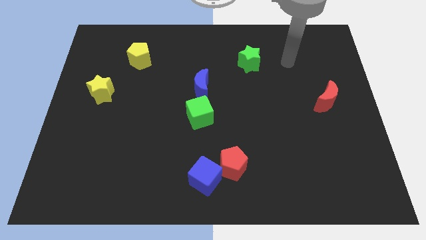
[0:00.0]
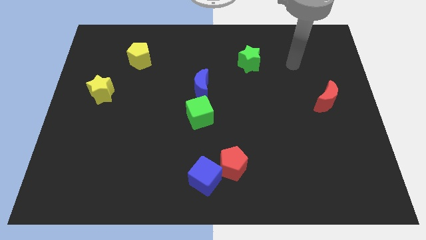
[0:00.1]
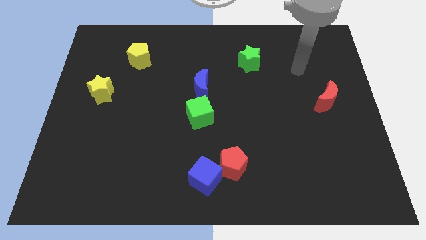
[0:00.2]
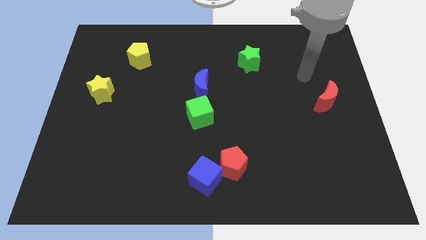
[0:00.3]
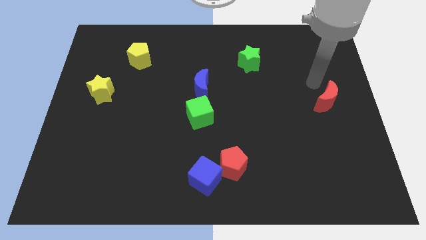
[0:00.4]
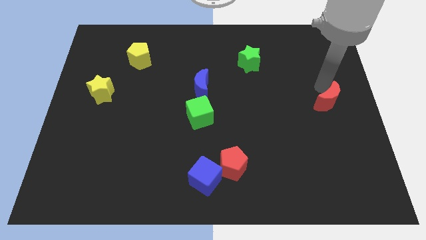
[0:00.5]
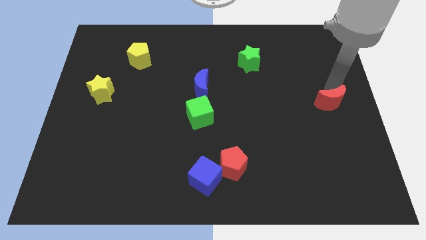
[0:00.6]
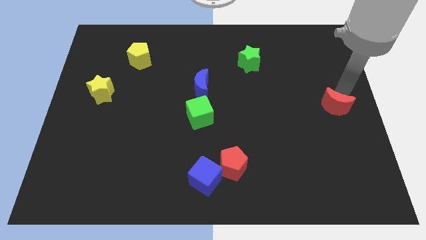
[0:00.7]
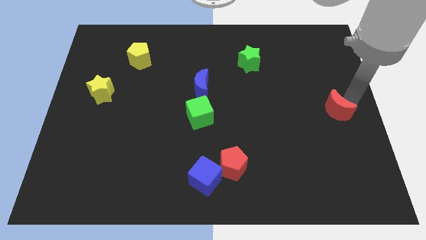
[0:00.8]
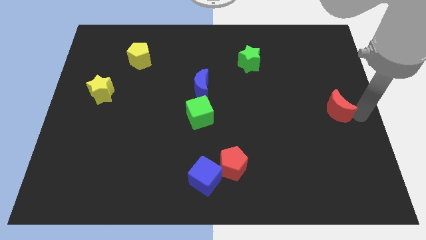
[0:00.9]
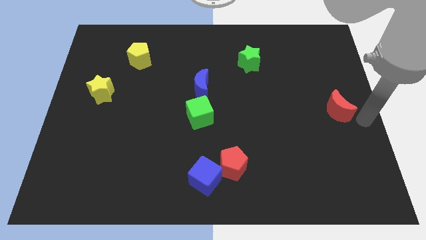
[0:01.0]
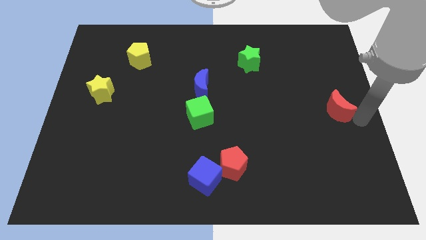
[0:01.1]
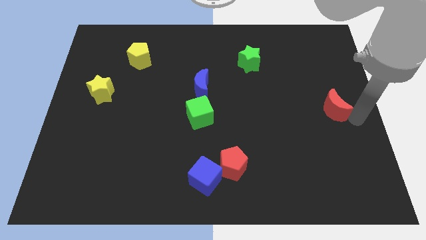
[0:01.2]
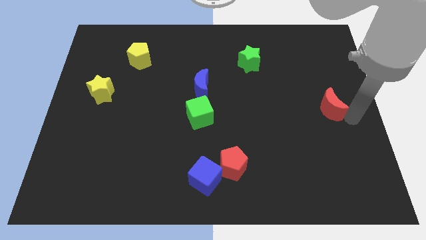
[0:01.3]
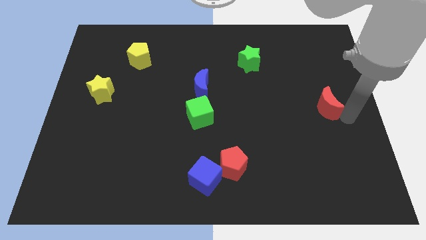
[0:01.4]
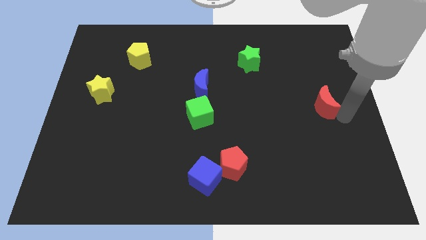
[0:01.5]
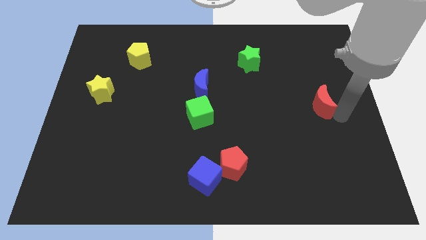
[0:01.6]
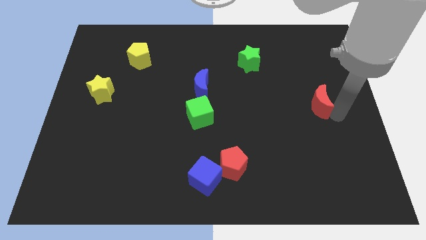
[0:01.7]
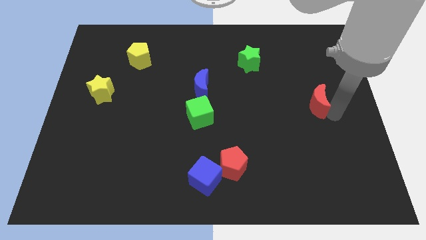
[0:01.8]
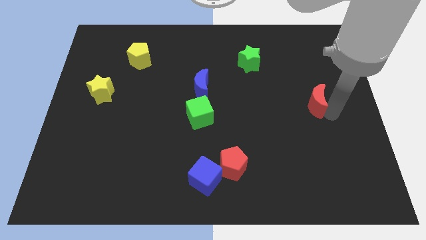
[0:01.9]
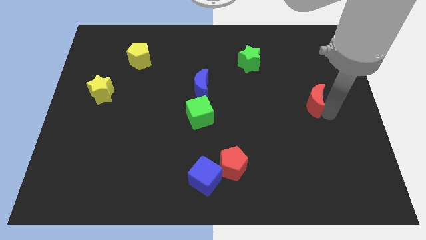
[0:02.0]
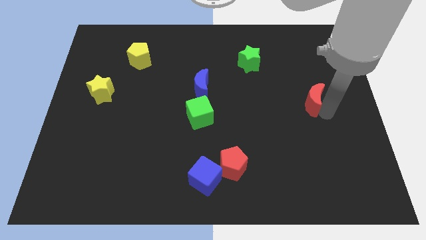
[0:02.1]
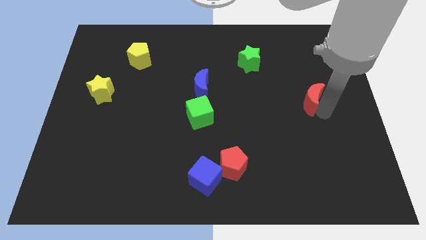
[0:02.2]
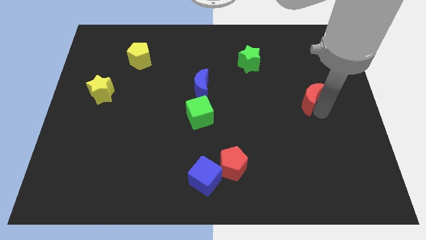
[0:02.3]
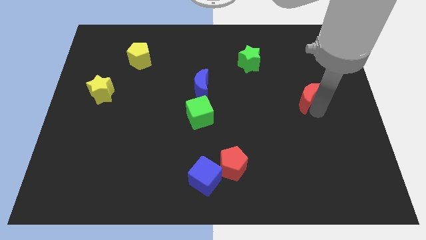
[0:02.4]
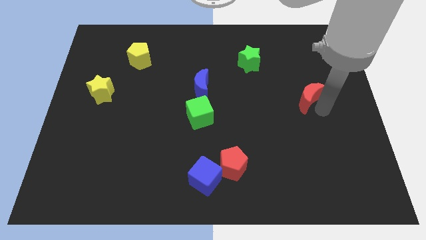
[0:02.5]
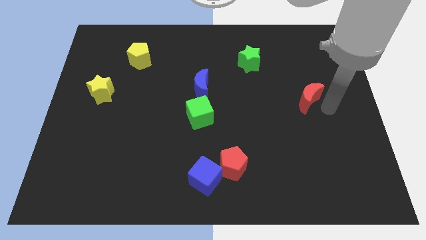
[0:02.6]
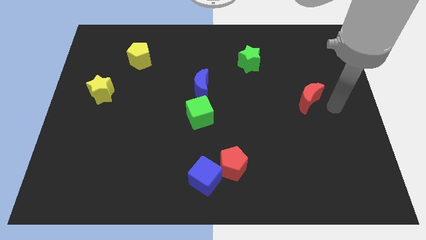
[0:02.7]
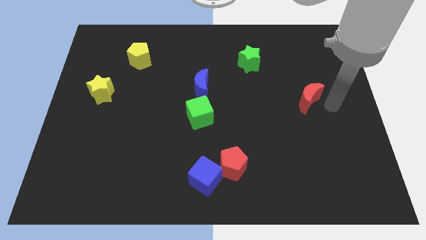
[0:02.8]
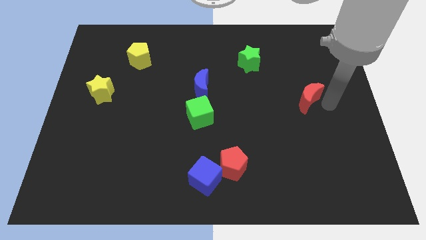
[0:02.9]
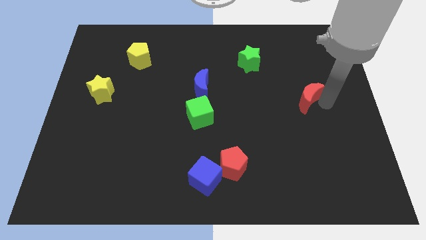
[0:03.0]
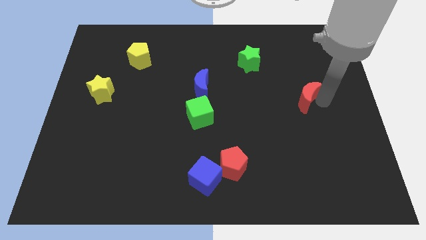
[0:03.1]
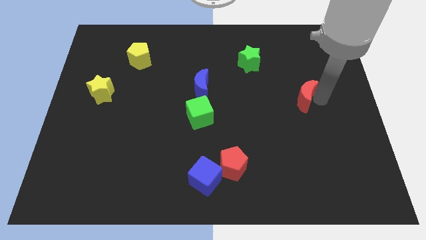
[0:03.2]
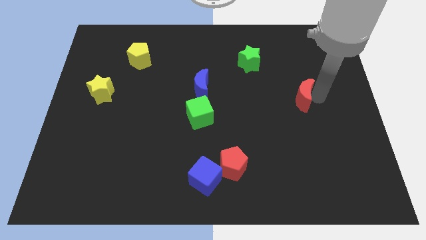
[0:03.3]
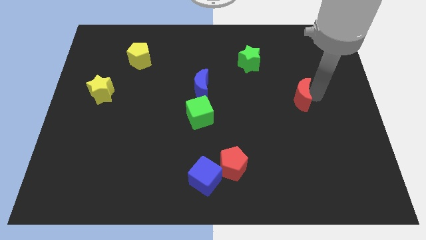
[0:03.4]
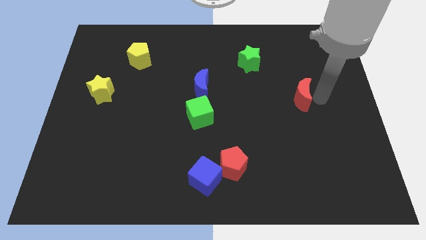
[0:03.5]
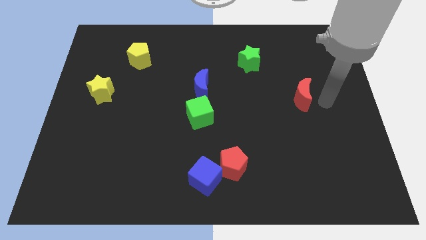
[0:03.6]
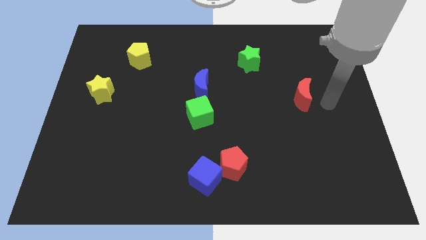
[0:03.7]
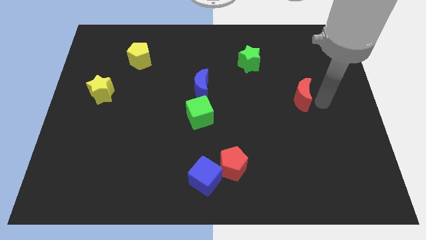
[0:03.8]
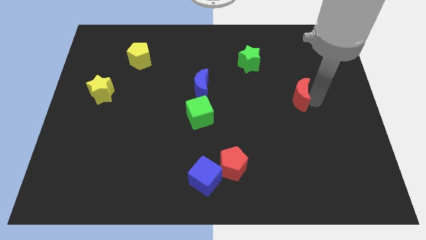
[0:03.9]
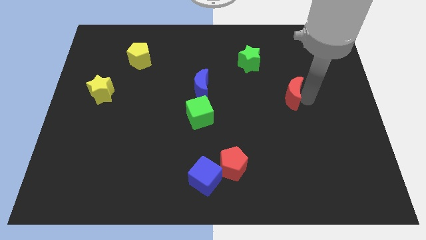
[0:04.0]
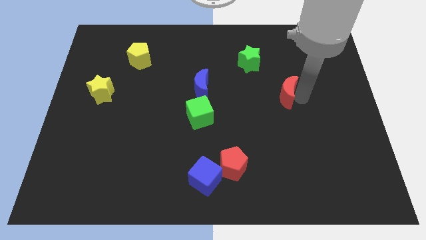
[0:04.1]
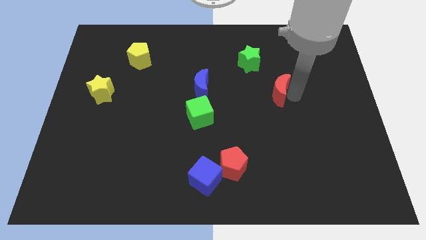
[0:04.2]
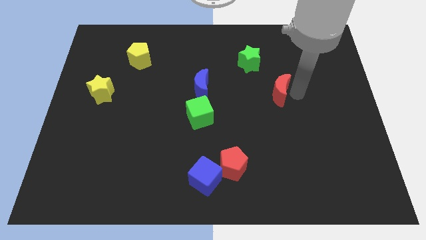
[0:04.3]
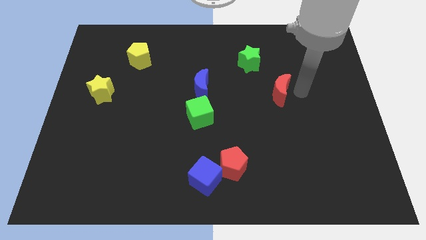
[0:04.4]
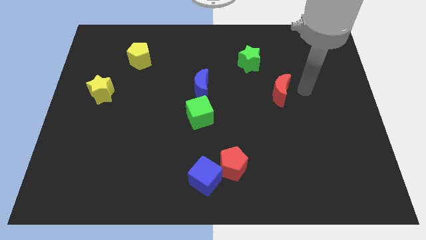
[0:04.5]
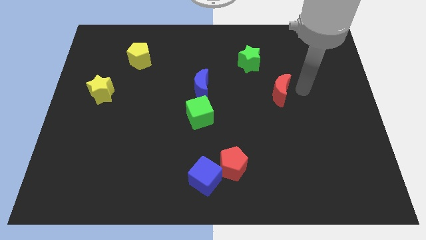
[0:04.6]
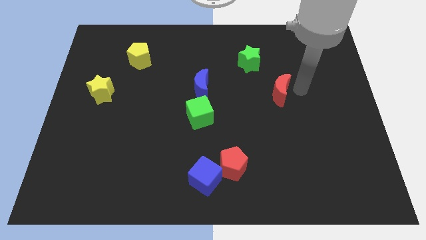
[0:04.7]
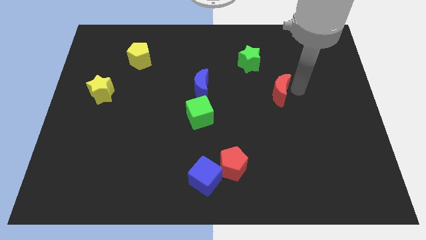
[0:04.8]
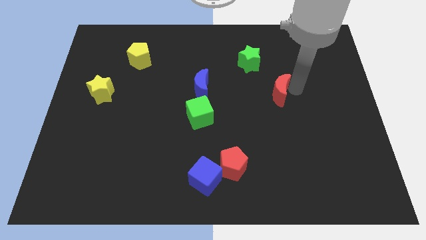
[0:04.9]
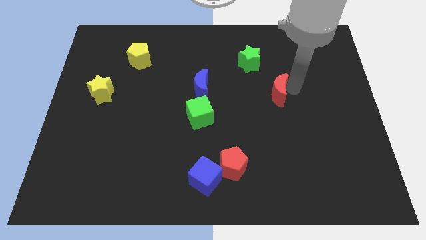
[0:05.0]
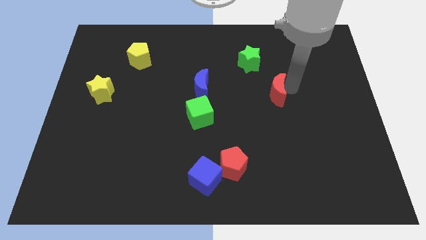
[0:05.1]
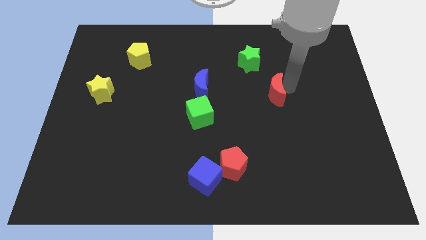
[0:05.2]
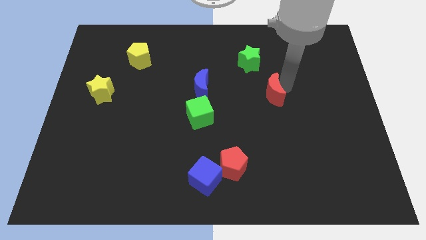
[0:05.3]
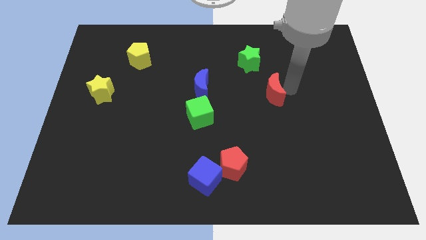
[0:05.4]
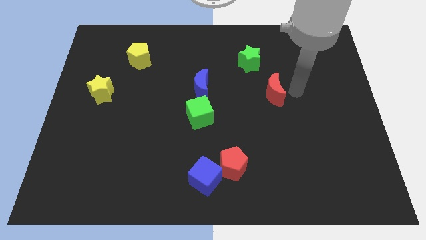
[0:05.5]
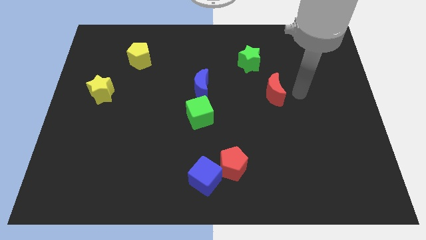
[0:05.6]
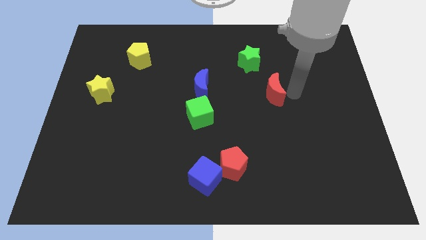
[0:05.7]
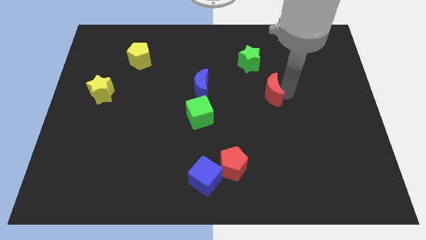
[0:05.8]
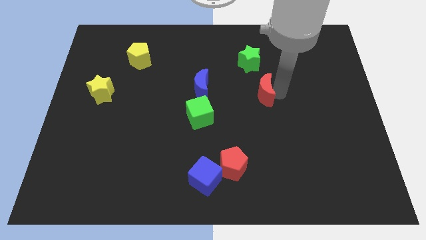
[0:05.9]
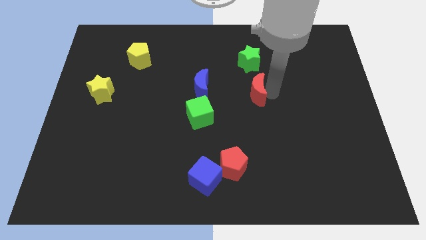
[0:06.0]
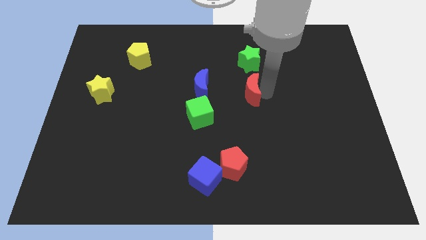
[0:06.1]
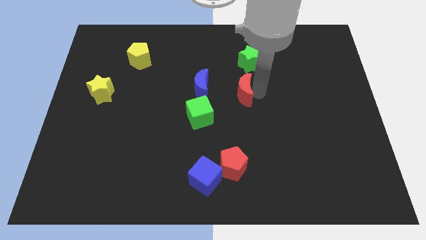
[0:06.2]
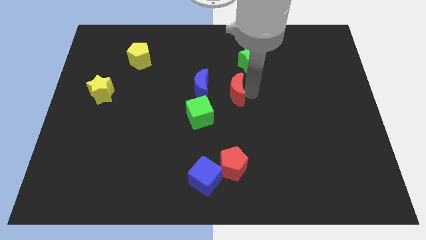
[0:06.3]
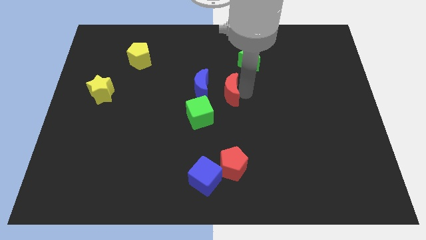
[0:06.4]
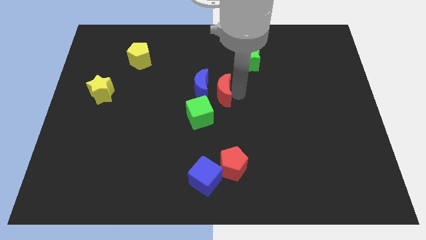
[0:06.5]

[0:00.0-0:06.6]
slide the red moon to the blue moon

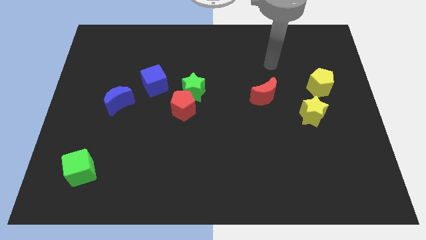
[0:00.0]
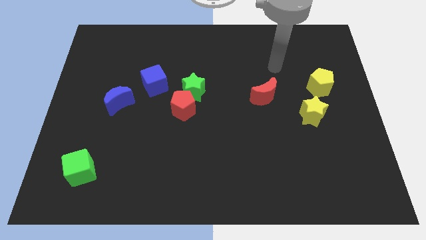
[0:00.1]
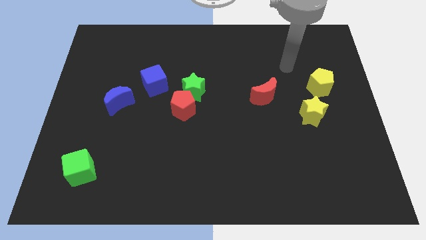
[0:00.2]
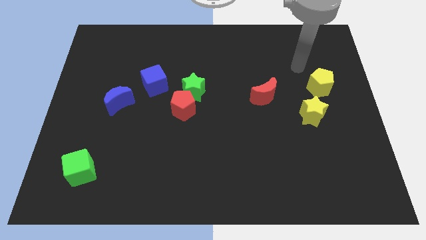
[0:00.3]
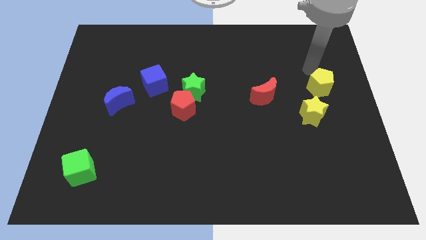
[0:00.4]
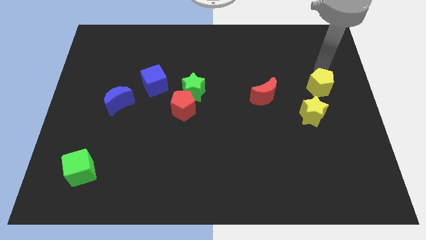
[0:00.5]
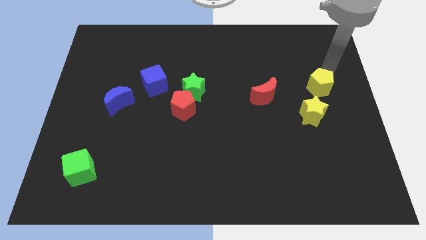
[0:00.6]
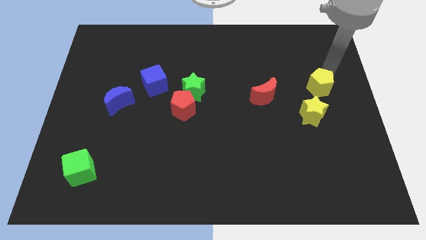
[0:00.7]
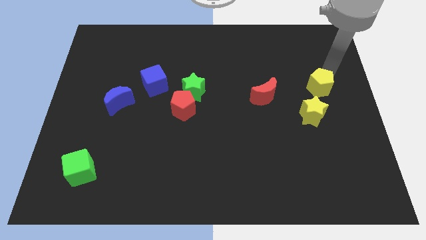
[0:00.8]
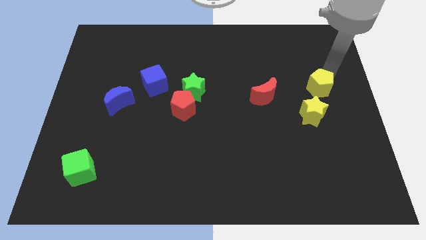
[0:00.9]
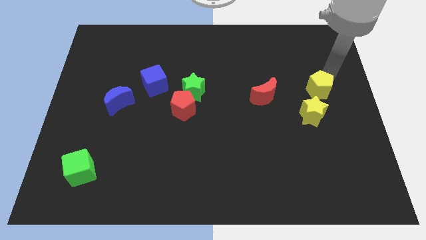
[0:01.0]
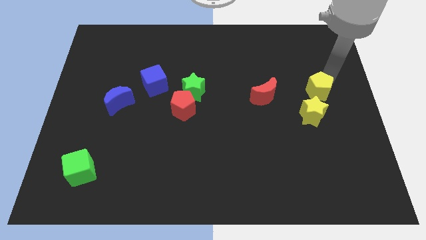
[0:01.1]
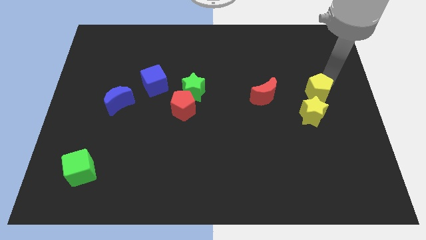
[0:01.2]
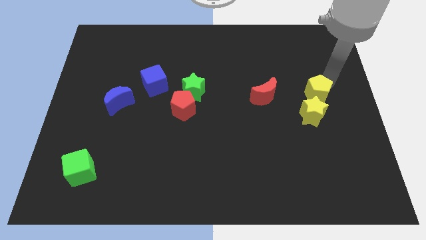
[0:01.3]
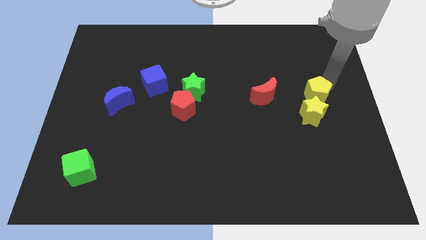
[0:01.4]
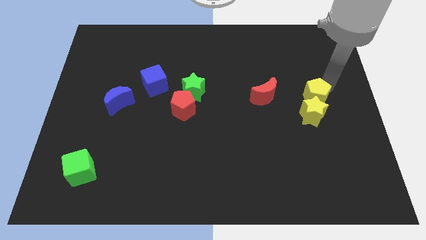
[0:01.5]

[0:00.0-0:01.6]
move the yellow pentagon towards the yellow star
